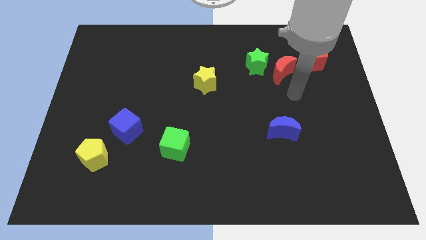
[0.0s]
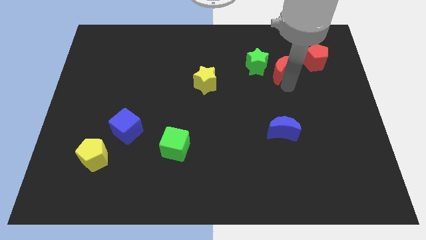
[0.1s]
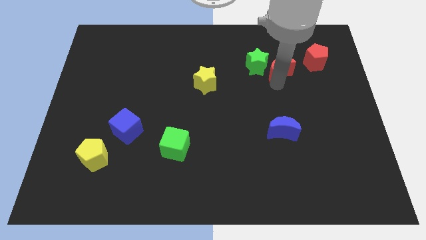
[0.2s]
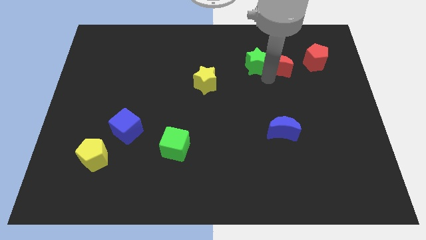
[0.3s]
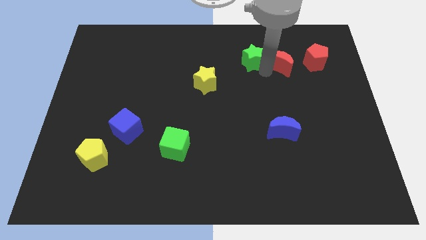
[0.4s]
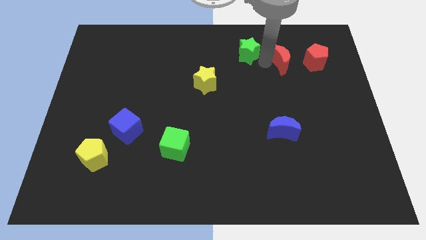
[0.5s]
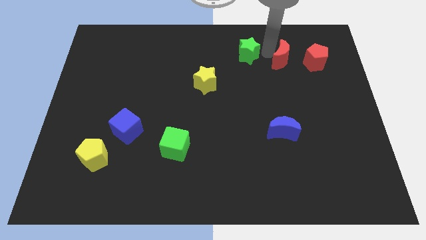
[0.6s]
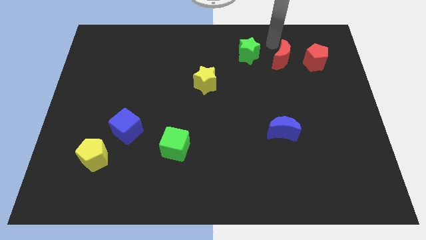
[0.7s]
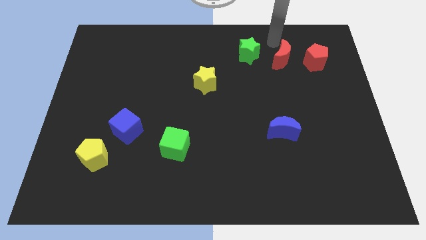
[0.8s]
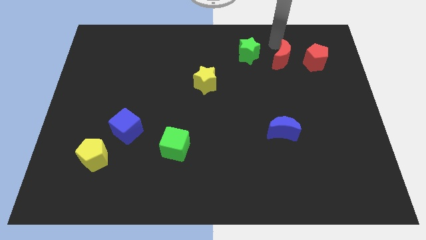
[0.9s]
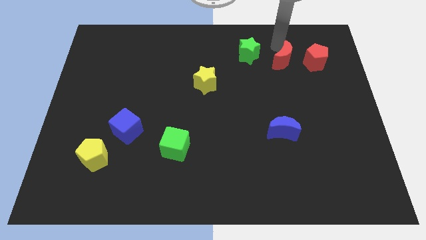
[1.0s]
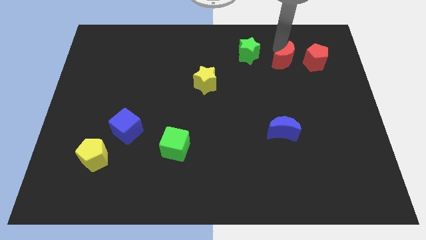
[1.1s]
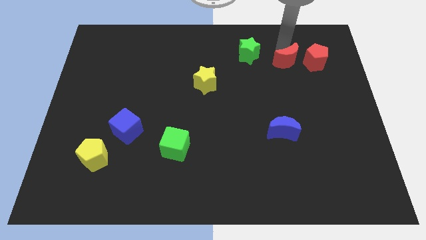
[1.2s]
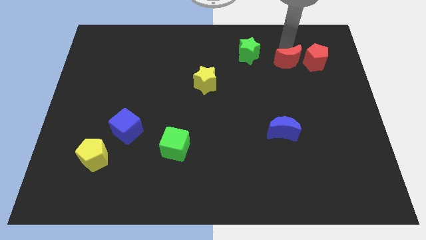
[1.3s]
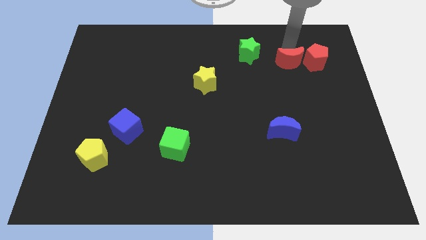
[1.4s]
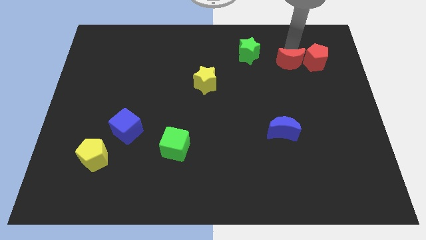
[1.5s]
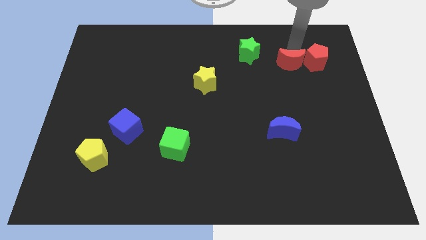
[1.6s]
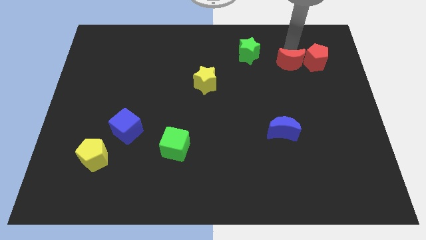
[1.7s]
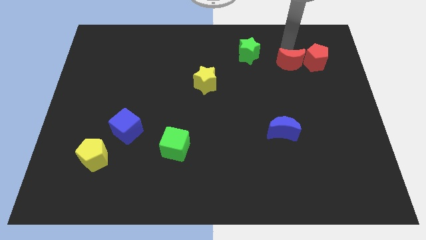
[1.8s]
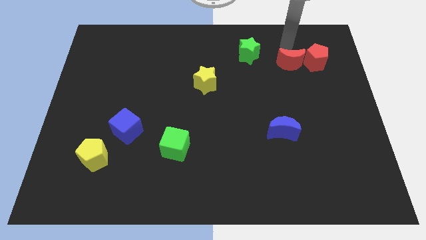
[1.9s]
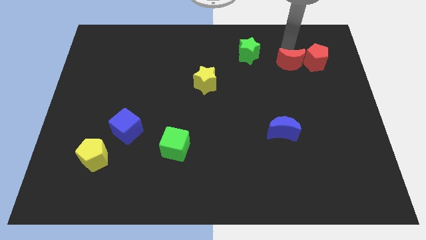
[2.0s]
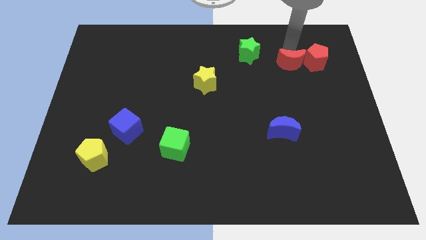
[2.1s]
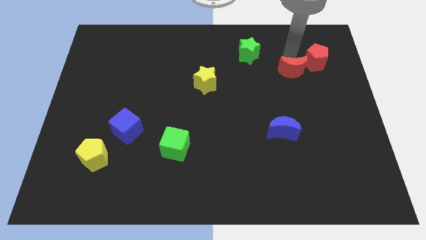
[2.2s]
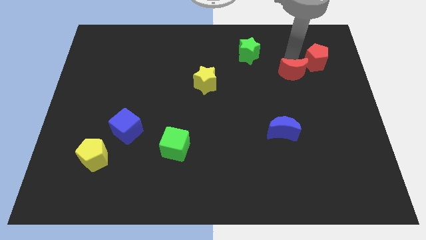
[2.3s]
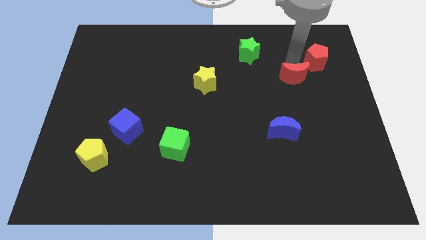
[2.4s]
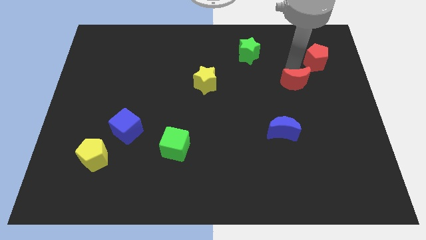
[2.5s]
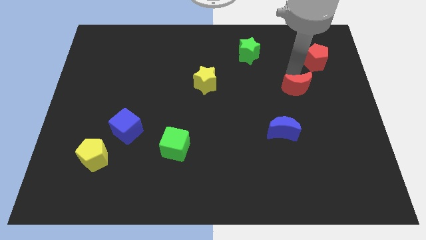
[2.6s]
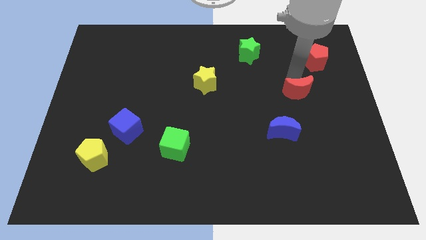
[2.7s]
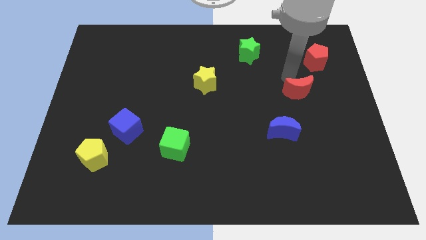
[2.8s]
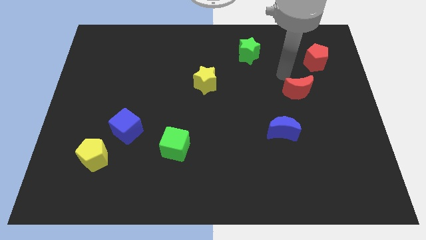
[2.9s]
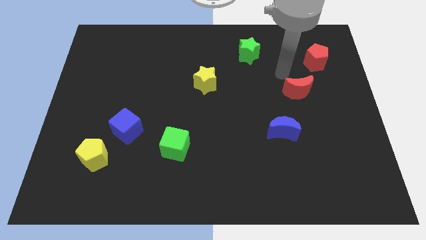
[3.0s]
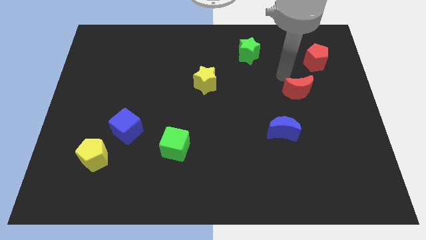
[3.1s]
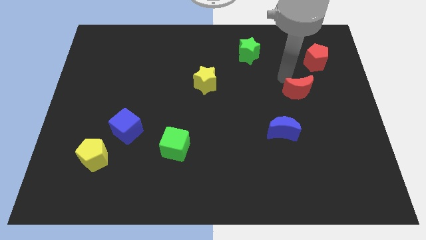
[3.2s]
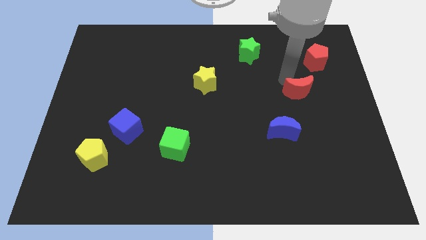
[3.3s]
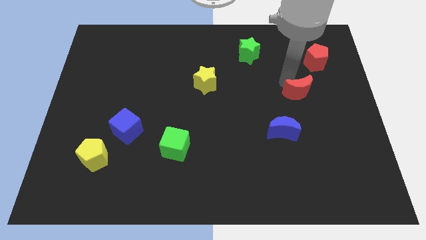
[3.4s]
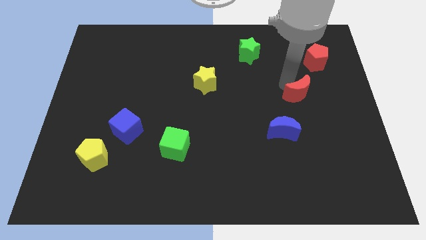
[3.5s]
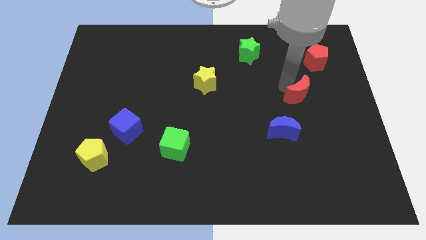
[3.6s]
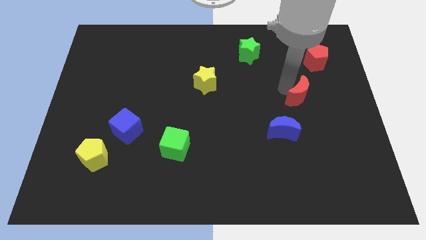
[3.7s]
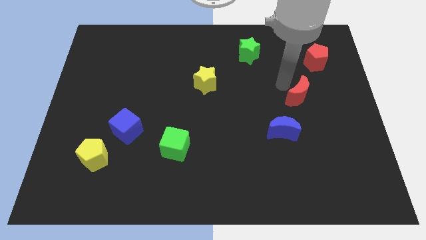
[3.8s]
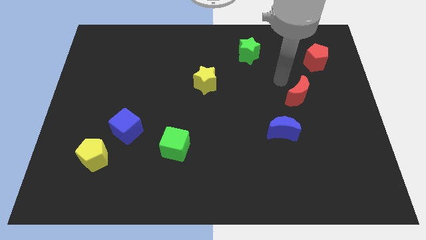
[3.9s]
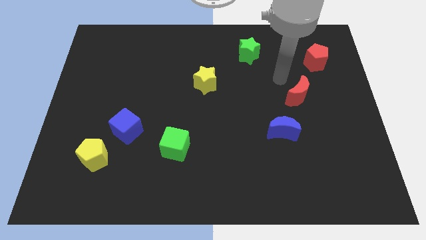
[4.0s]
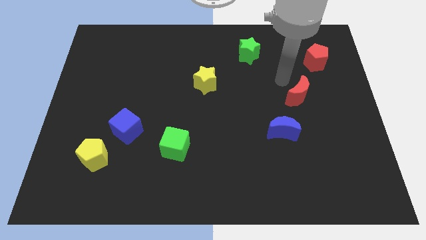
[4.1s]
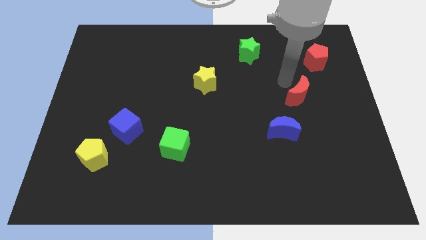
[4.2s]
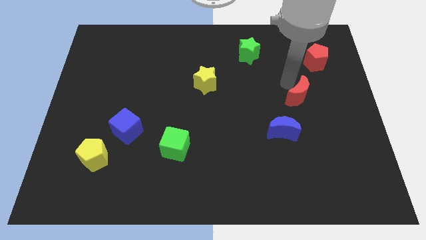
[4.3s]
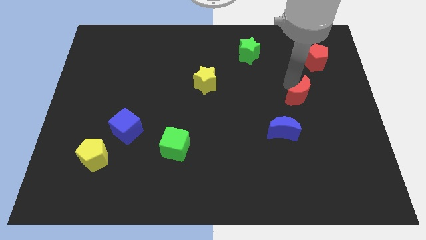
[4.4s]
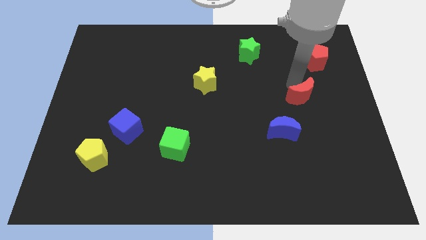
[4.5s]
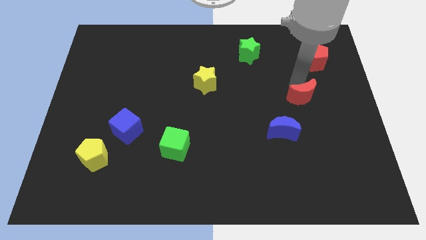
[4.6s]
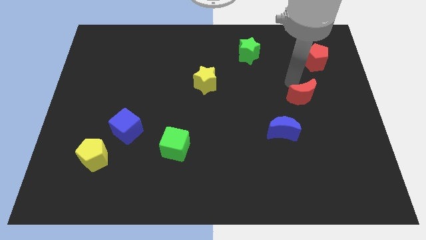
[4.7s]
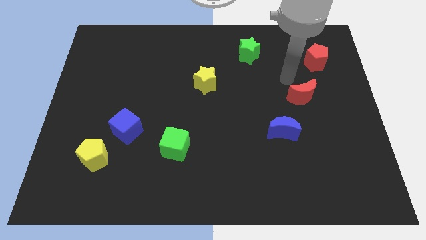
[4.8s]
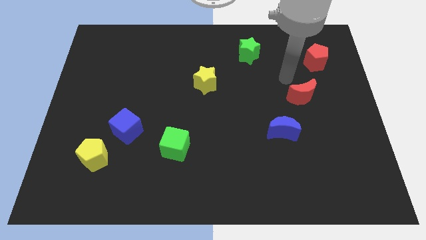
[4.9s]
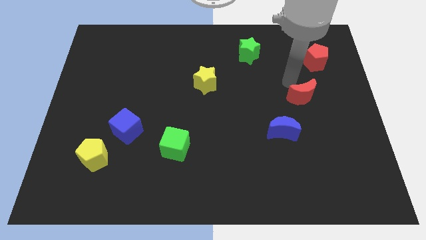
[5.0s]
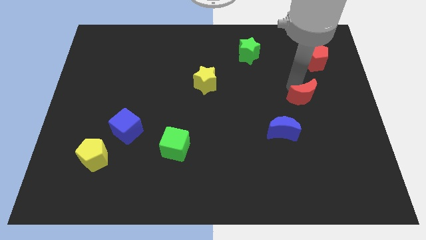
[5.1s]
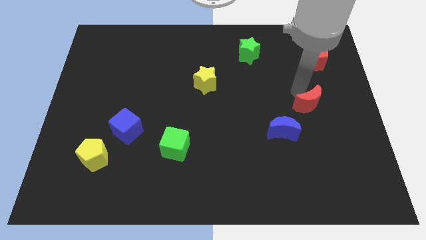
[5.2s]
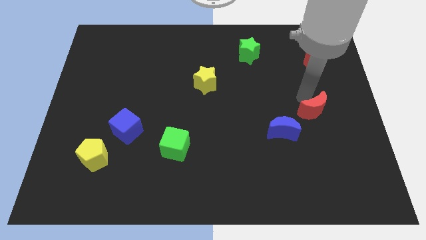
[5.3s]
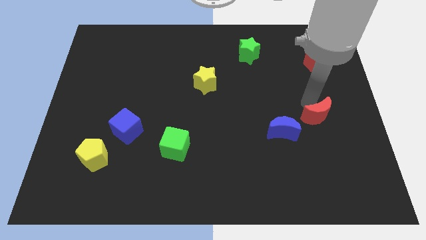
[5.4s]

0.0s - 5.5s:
push the red moon just right of the blue moon

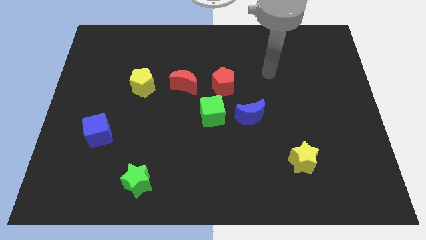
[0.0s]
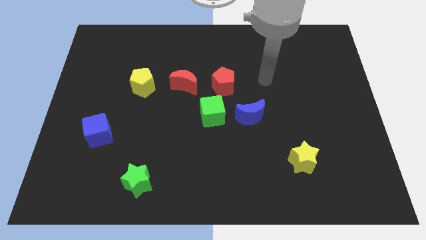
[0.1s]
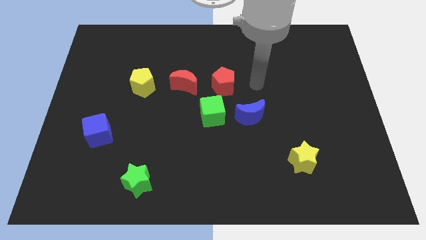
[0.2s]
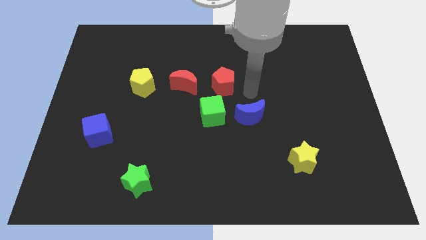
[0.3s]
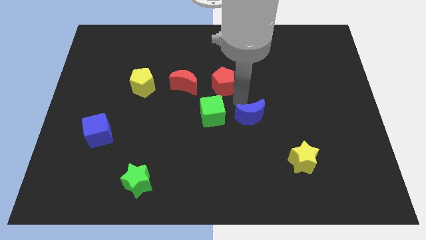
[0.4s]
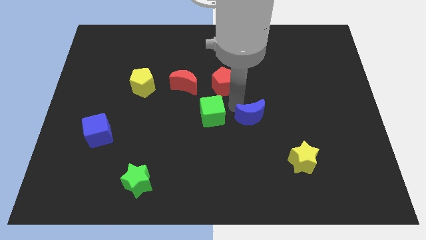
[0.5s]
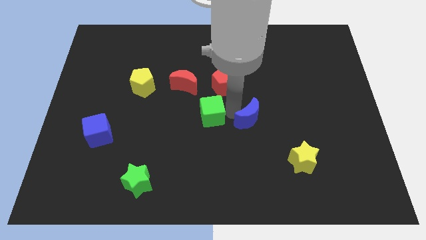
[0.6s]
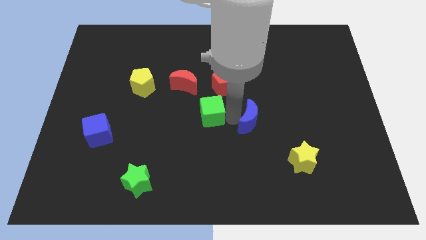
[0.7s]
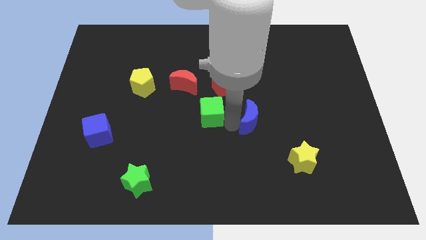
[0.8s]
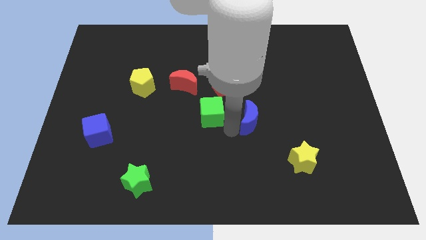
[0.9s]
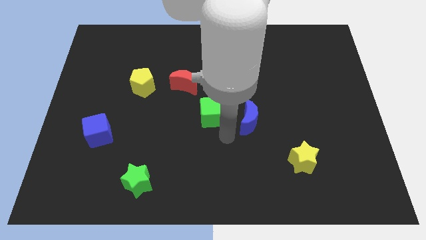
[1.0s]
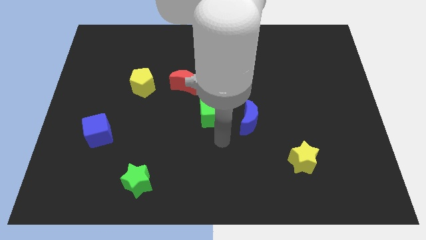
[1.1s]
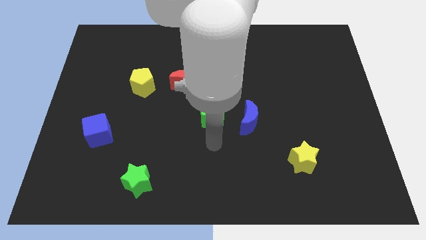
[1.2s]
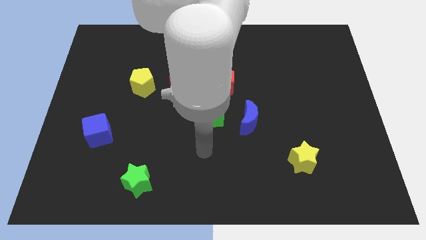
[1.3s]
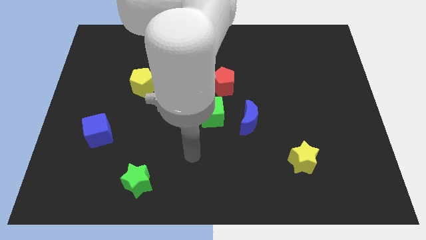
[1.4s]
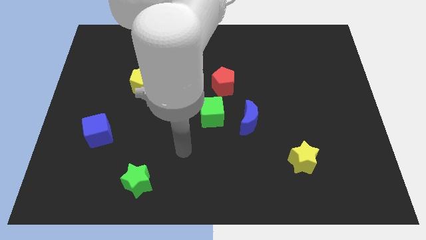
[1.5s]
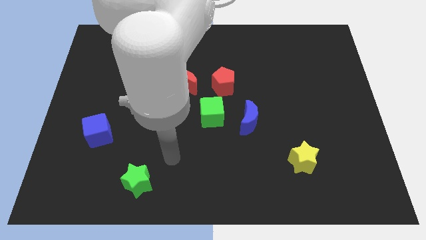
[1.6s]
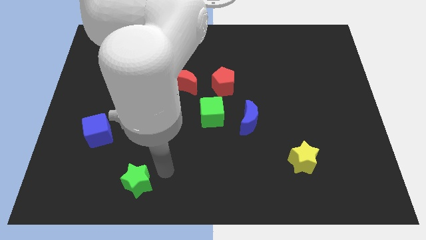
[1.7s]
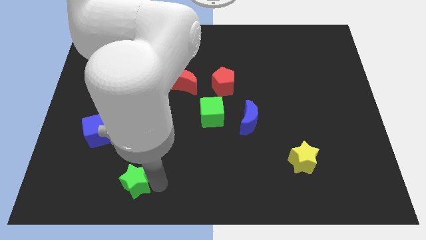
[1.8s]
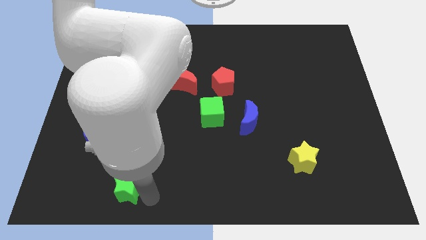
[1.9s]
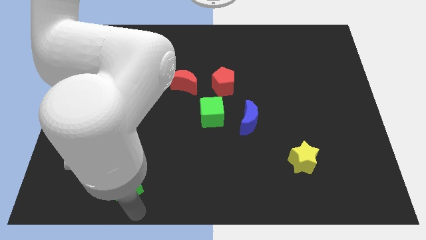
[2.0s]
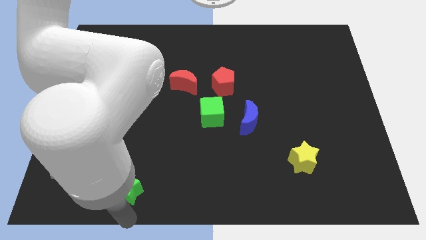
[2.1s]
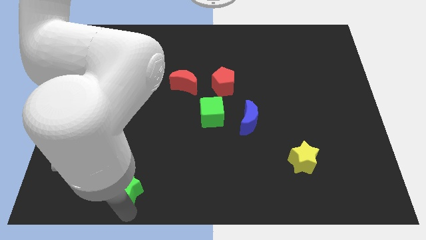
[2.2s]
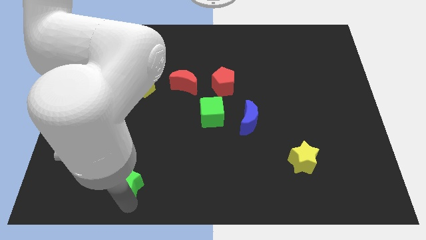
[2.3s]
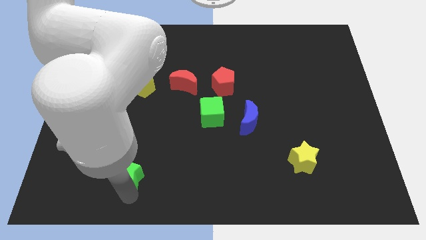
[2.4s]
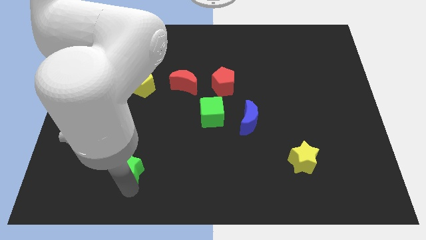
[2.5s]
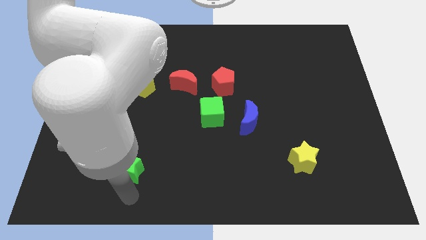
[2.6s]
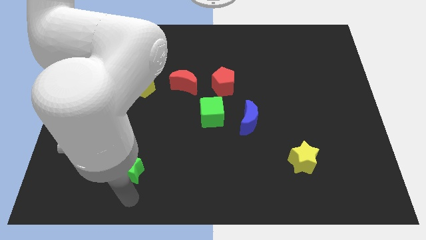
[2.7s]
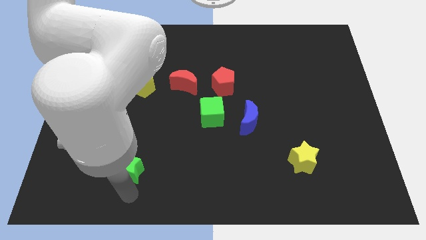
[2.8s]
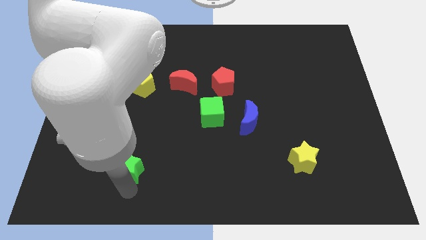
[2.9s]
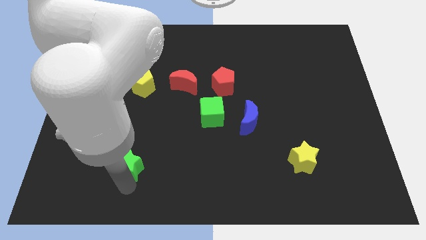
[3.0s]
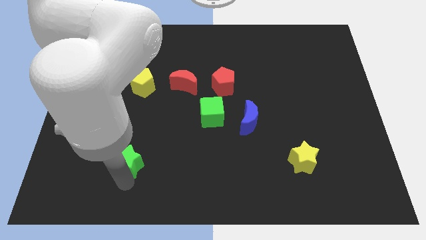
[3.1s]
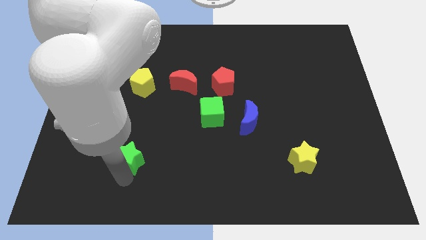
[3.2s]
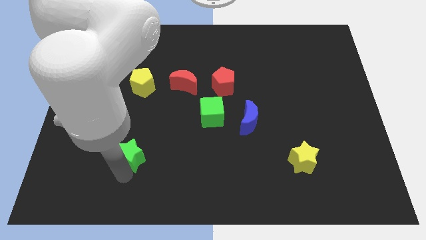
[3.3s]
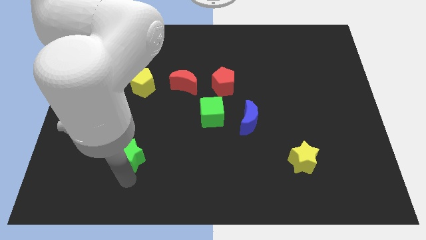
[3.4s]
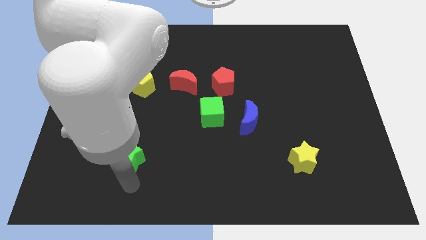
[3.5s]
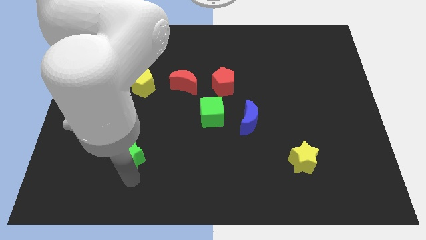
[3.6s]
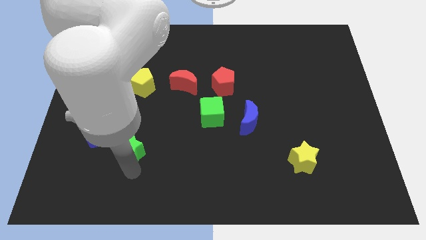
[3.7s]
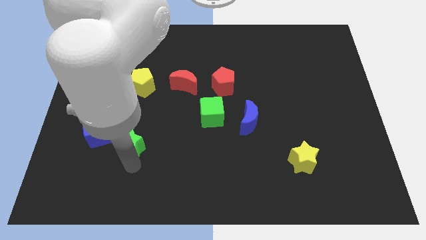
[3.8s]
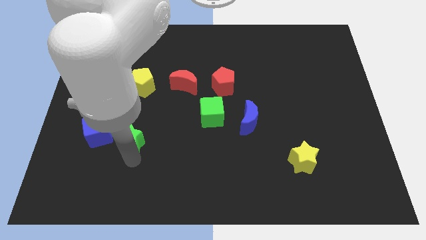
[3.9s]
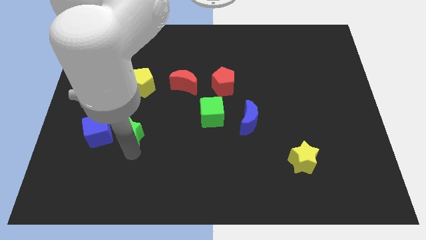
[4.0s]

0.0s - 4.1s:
put the green star to the bottom of the yellow pentagon
